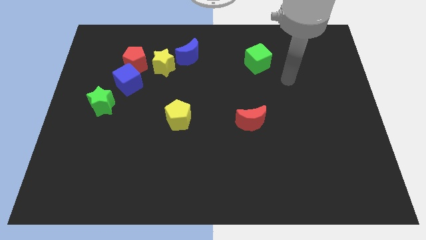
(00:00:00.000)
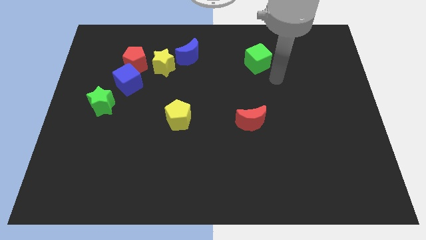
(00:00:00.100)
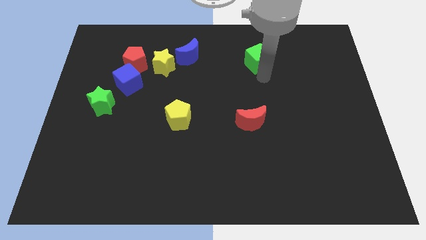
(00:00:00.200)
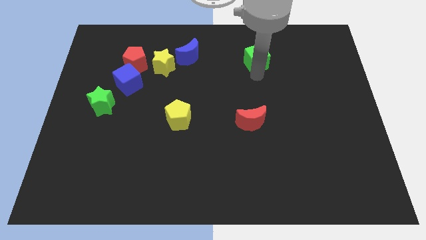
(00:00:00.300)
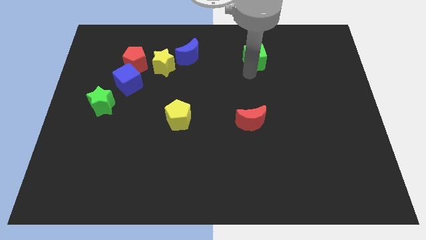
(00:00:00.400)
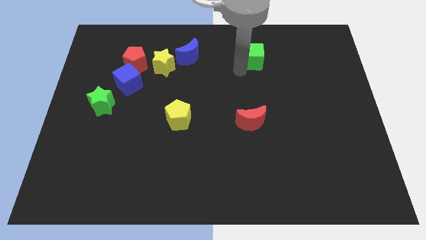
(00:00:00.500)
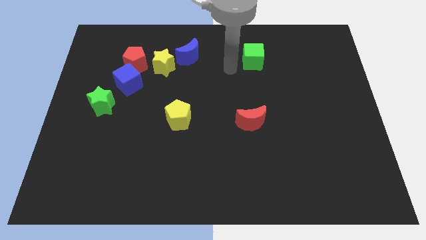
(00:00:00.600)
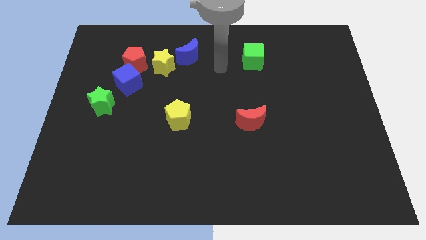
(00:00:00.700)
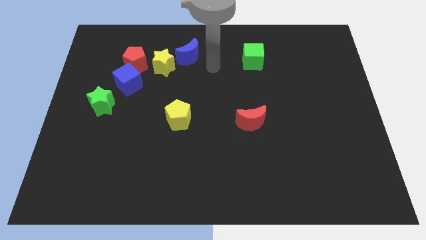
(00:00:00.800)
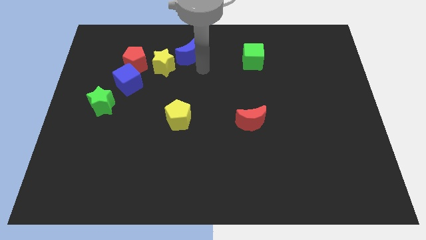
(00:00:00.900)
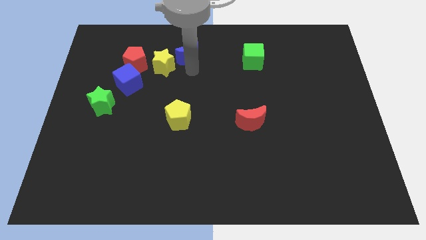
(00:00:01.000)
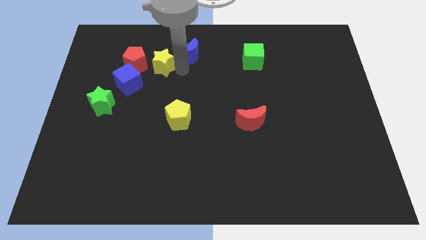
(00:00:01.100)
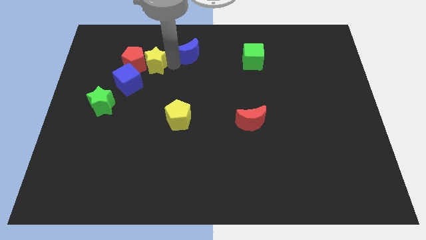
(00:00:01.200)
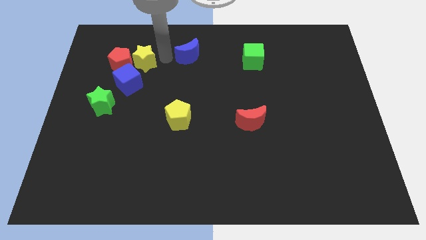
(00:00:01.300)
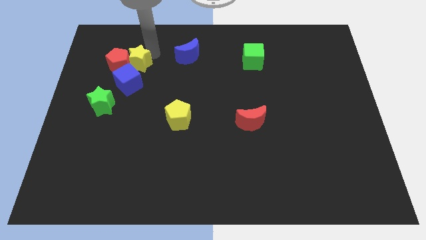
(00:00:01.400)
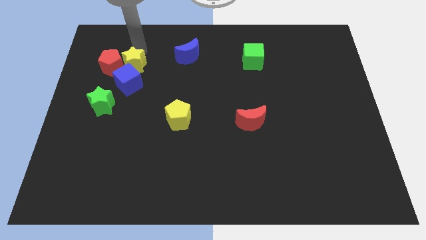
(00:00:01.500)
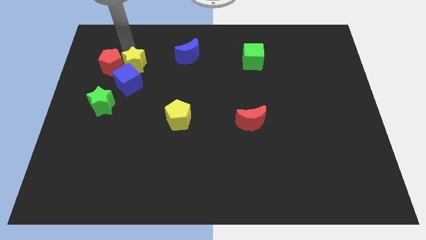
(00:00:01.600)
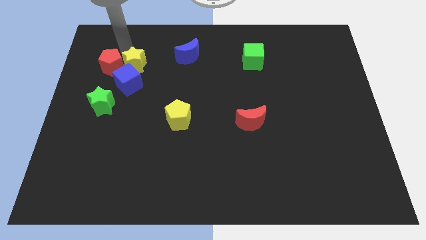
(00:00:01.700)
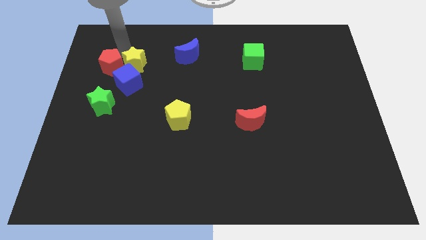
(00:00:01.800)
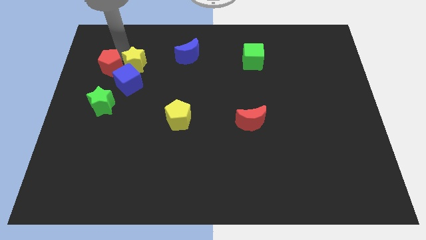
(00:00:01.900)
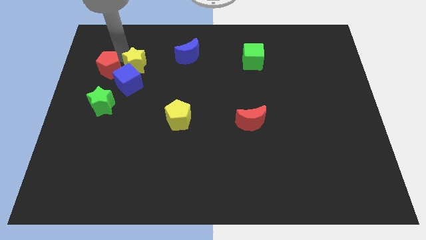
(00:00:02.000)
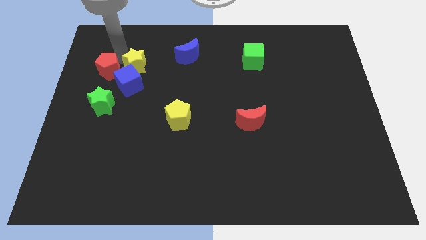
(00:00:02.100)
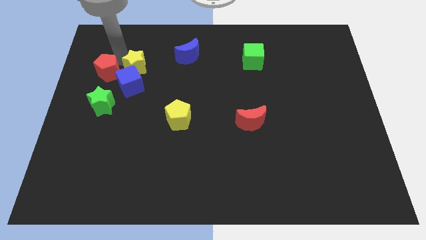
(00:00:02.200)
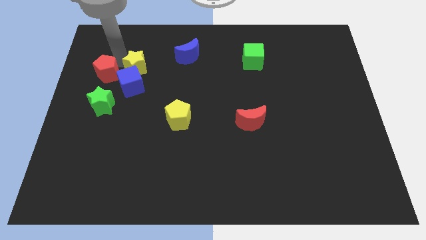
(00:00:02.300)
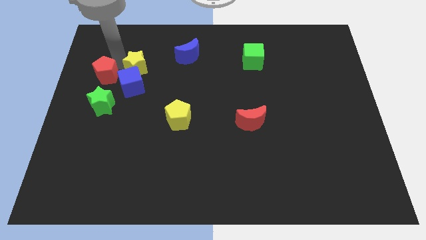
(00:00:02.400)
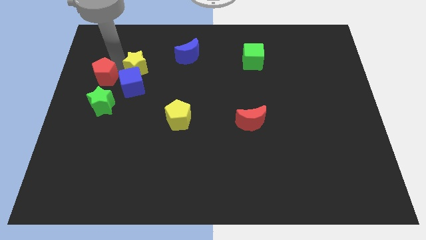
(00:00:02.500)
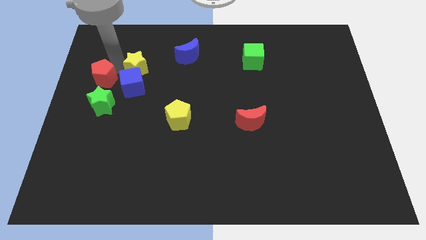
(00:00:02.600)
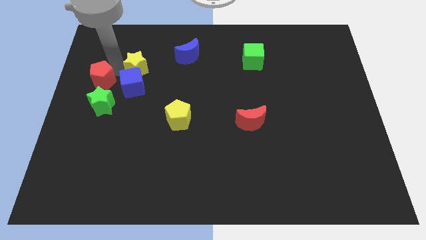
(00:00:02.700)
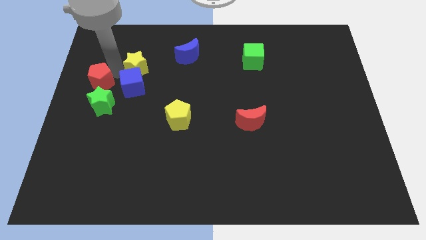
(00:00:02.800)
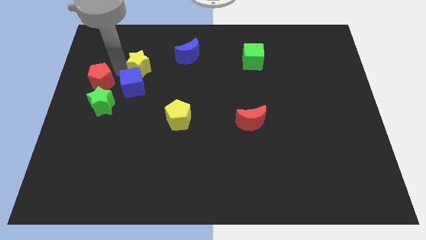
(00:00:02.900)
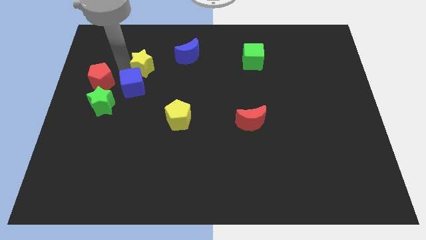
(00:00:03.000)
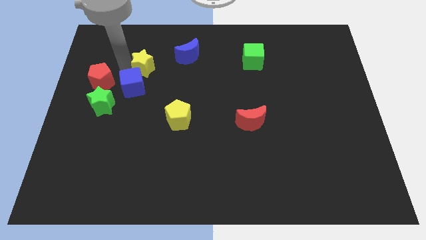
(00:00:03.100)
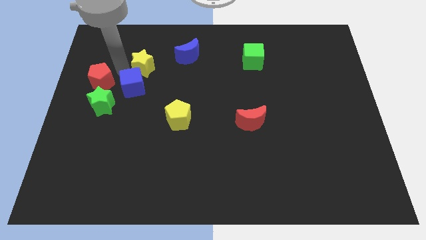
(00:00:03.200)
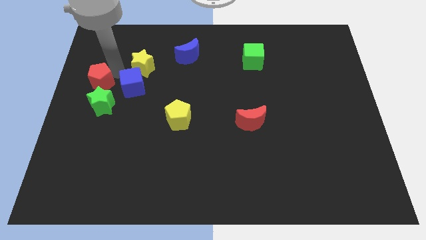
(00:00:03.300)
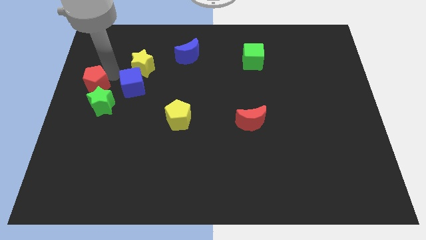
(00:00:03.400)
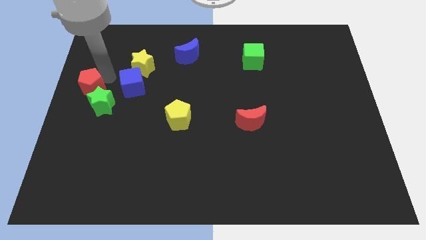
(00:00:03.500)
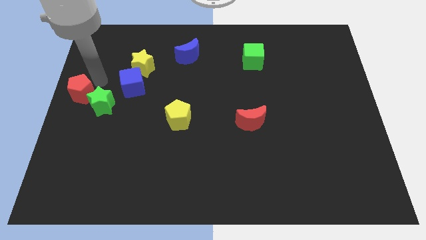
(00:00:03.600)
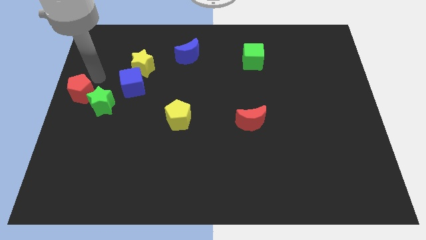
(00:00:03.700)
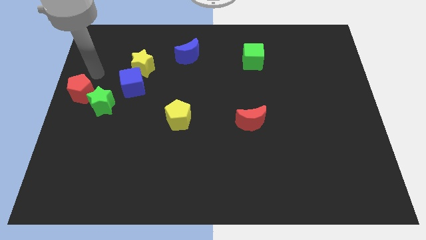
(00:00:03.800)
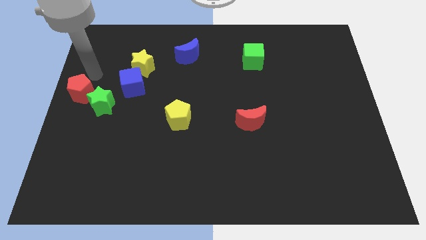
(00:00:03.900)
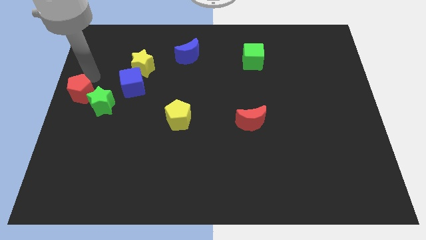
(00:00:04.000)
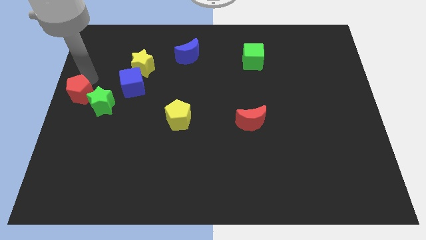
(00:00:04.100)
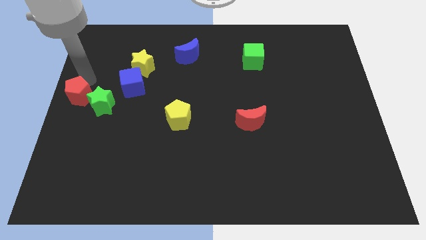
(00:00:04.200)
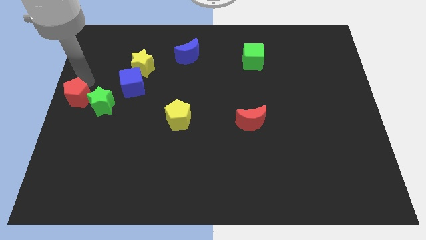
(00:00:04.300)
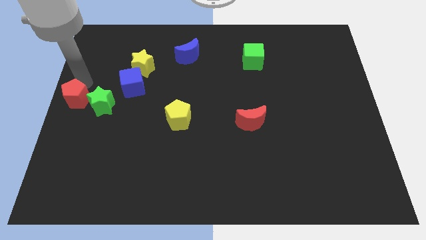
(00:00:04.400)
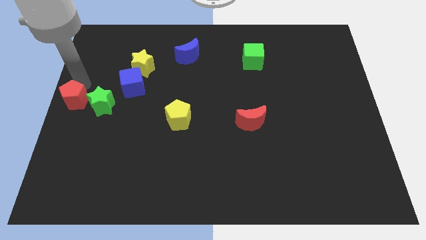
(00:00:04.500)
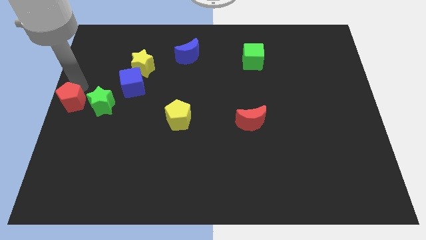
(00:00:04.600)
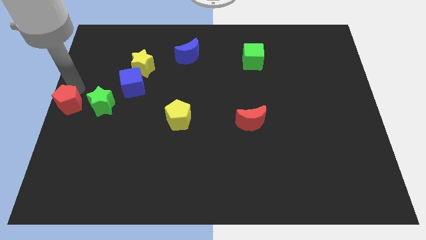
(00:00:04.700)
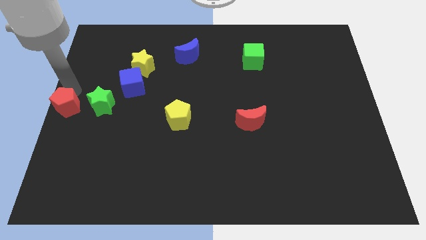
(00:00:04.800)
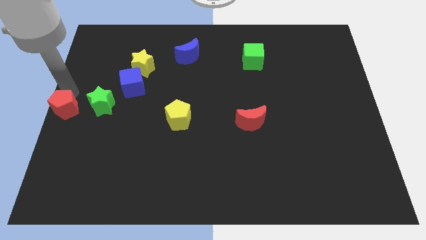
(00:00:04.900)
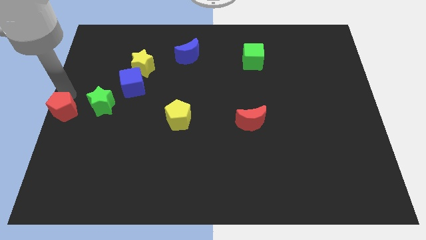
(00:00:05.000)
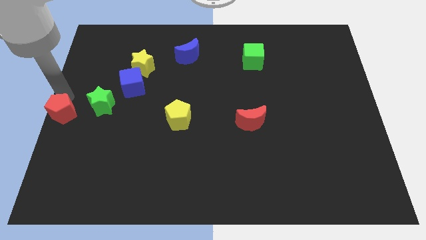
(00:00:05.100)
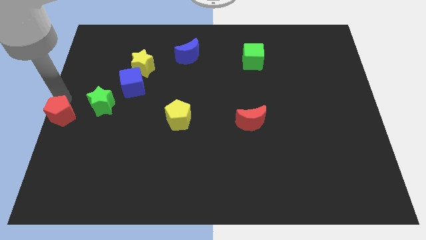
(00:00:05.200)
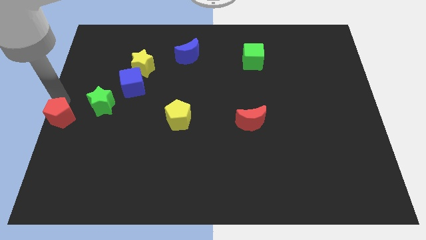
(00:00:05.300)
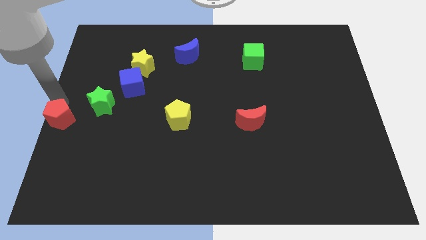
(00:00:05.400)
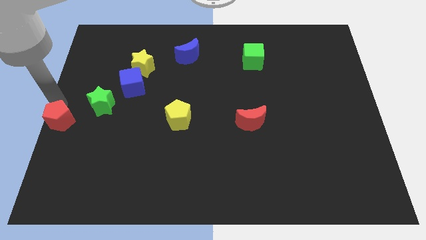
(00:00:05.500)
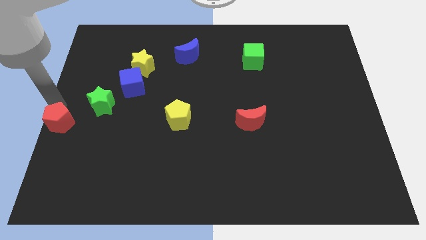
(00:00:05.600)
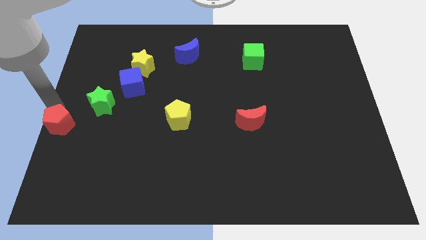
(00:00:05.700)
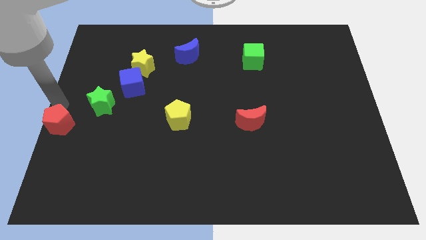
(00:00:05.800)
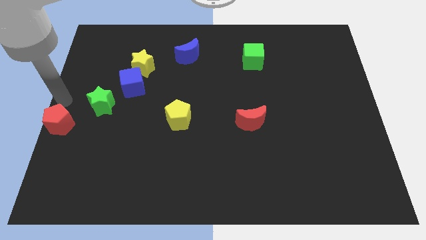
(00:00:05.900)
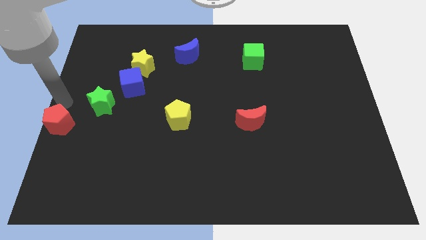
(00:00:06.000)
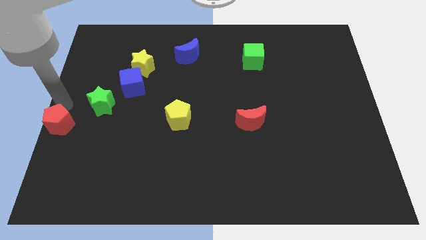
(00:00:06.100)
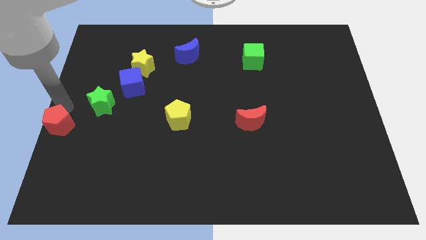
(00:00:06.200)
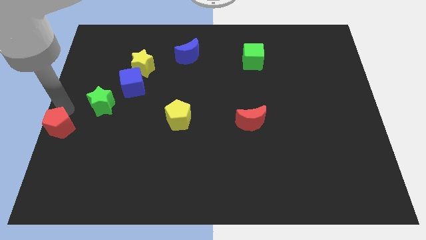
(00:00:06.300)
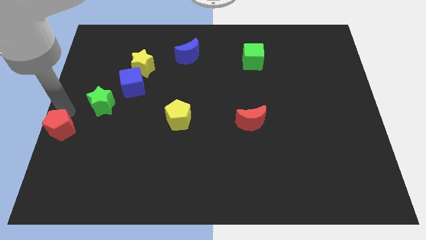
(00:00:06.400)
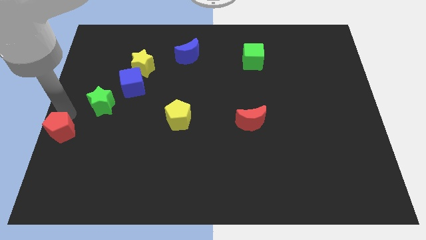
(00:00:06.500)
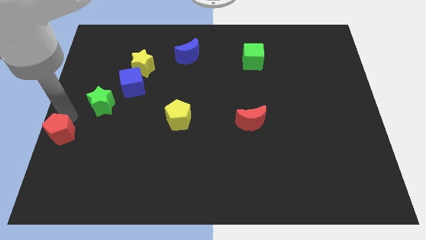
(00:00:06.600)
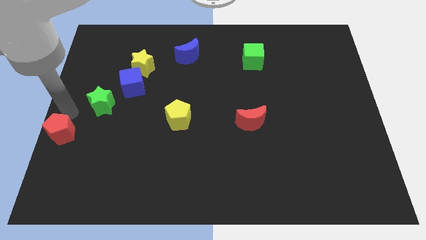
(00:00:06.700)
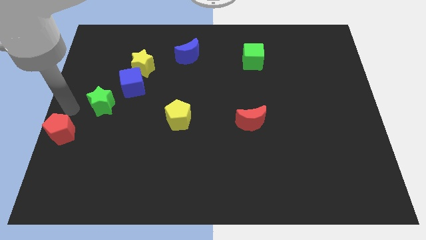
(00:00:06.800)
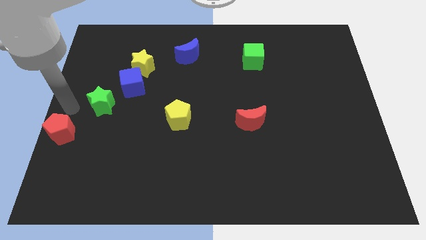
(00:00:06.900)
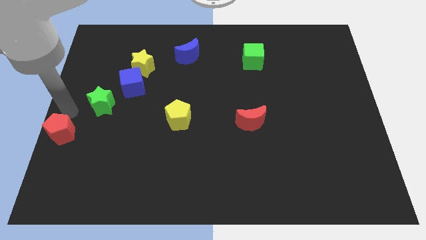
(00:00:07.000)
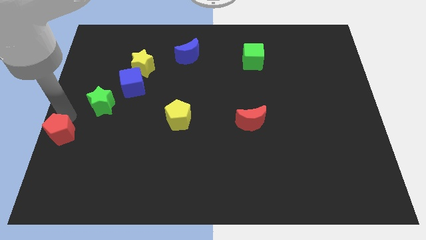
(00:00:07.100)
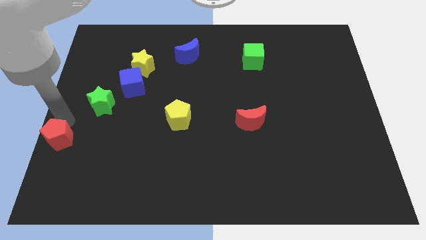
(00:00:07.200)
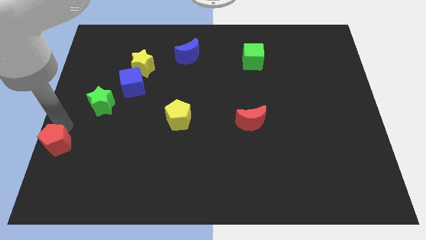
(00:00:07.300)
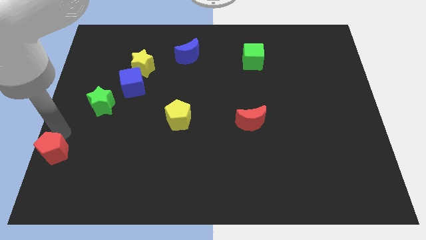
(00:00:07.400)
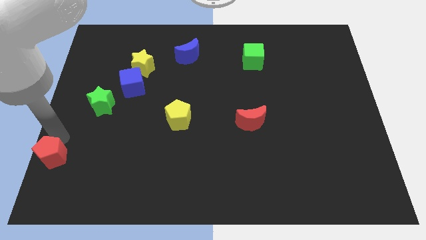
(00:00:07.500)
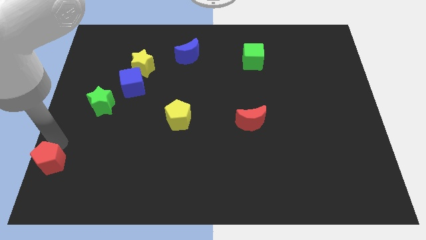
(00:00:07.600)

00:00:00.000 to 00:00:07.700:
push the red pentagon to the lower left corner
